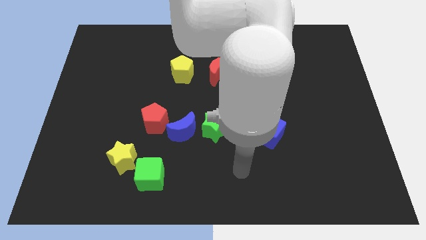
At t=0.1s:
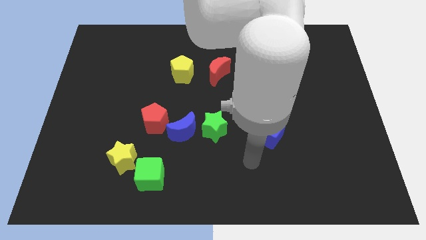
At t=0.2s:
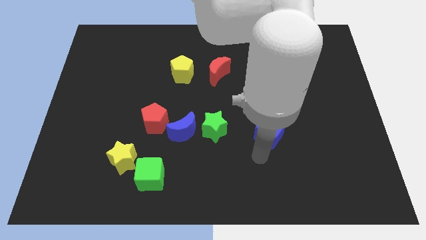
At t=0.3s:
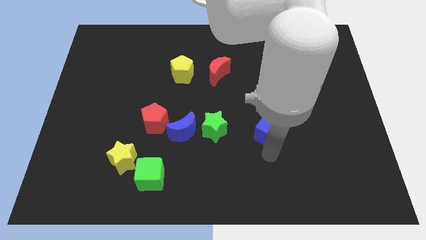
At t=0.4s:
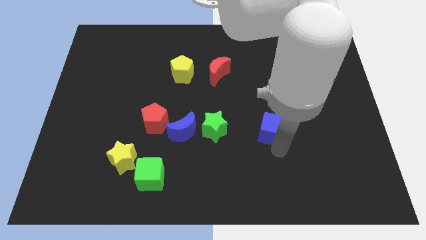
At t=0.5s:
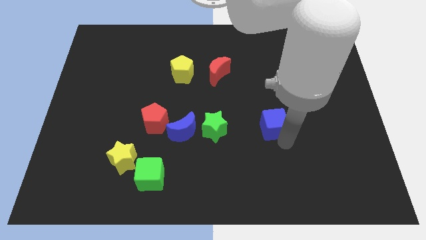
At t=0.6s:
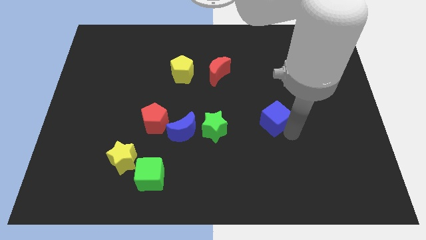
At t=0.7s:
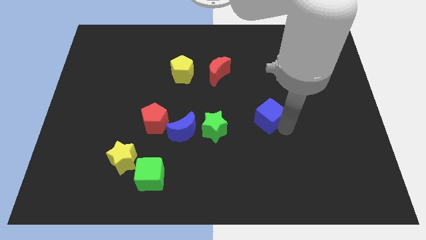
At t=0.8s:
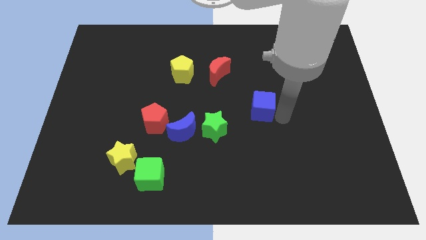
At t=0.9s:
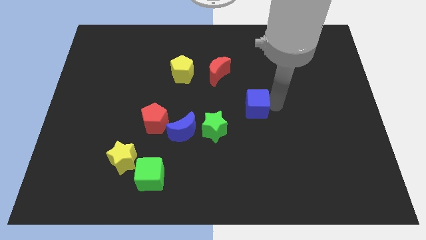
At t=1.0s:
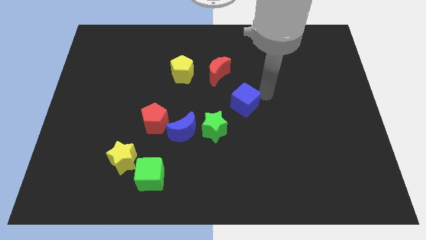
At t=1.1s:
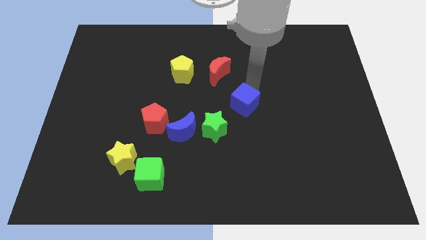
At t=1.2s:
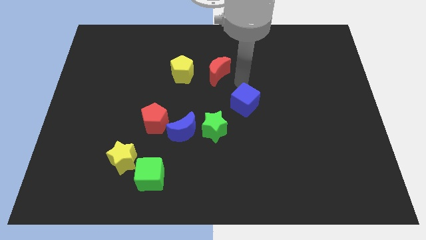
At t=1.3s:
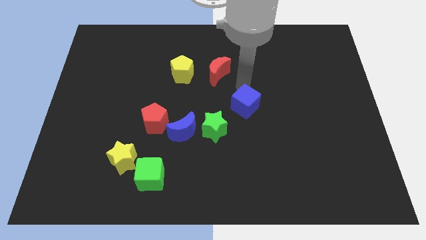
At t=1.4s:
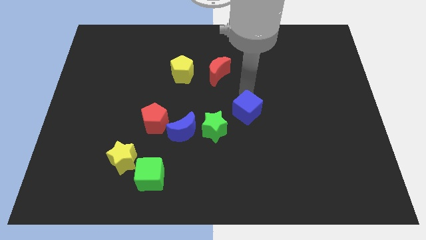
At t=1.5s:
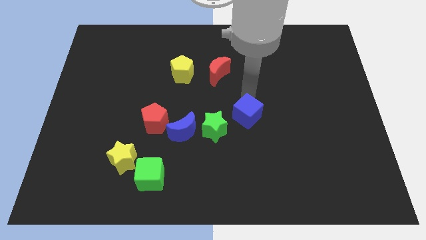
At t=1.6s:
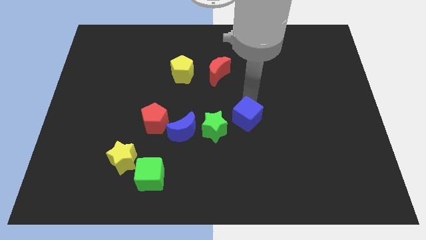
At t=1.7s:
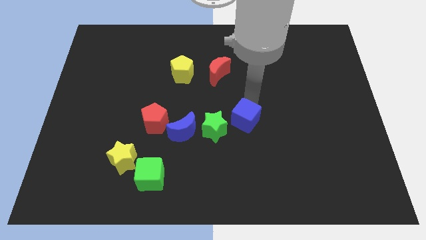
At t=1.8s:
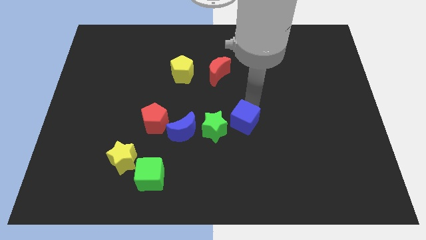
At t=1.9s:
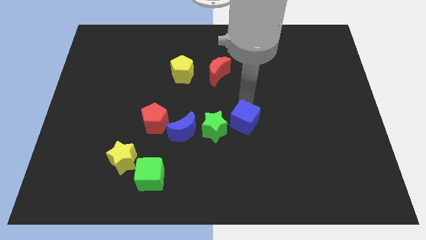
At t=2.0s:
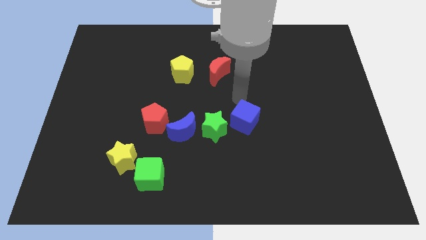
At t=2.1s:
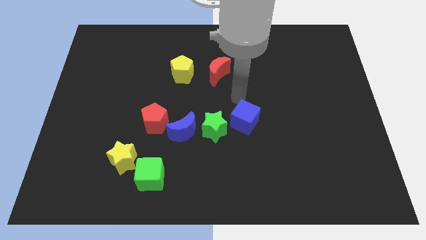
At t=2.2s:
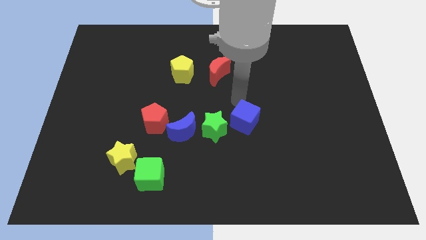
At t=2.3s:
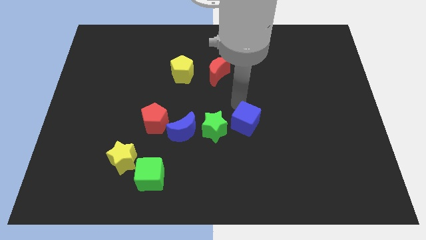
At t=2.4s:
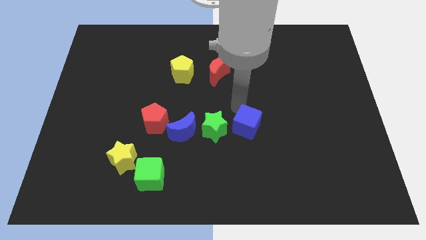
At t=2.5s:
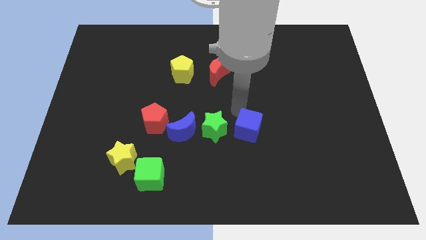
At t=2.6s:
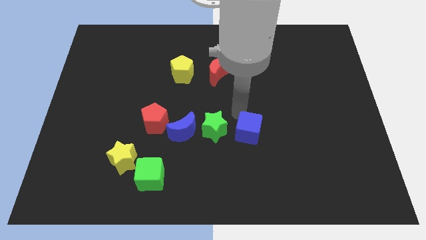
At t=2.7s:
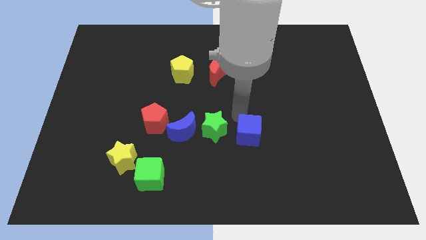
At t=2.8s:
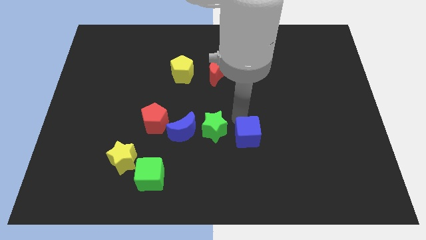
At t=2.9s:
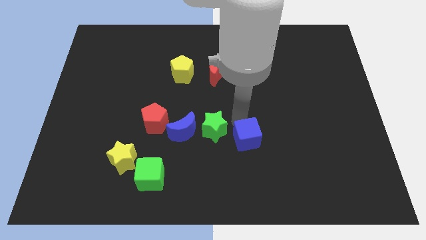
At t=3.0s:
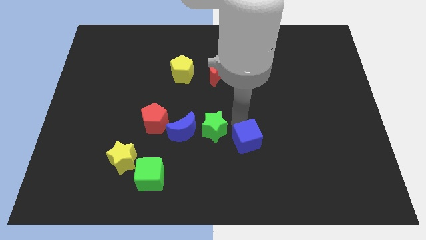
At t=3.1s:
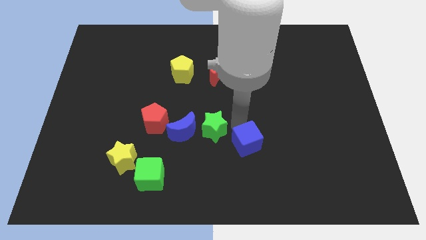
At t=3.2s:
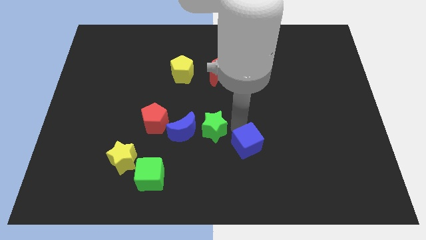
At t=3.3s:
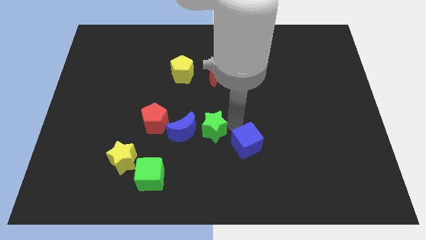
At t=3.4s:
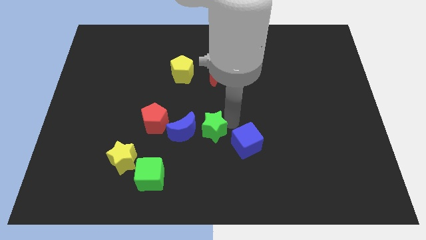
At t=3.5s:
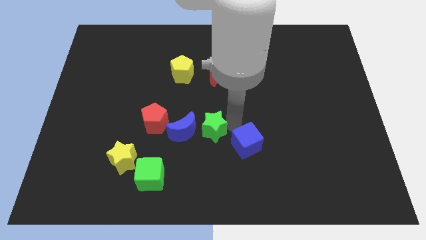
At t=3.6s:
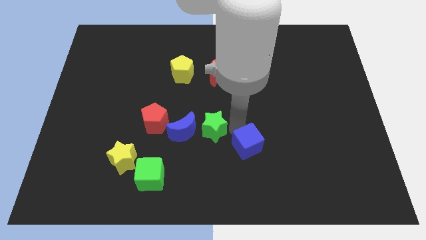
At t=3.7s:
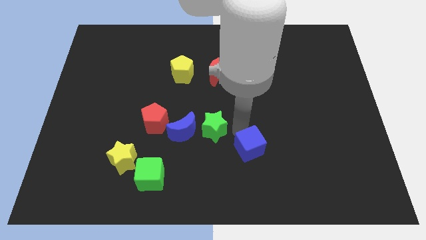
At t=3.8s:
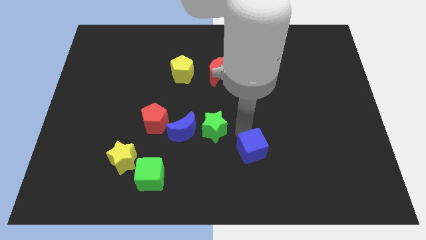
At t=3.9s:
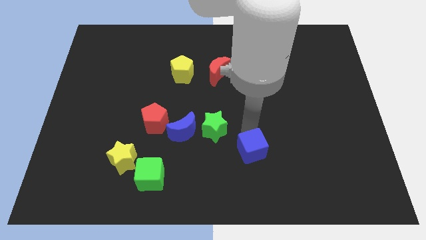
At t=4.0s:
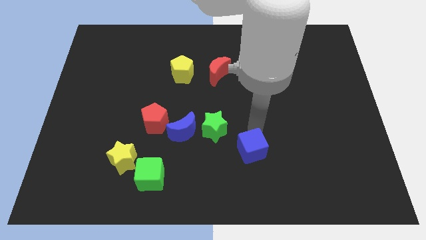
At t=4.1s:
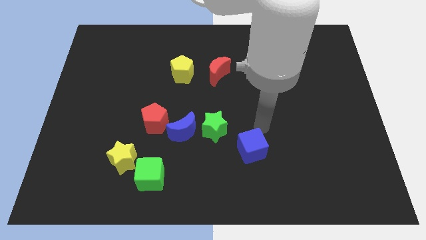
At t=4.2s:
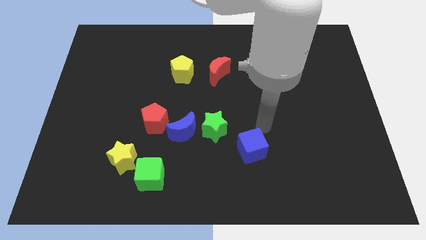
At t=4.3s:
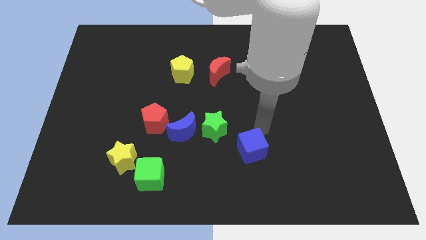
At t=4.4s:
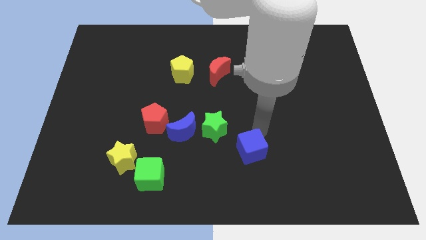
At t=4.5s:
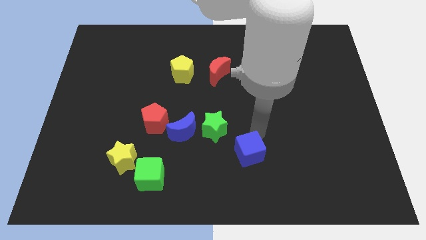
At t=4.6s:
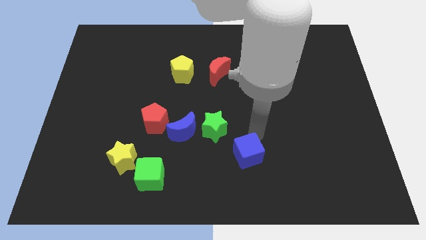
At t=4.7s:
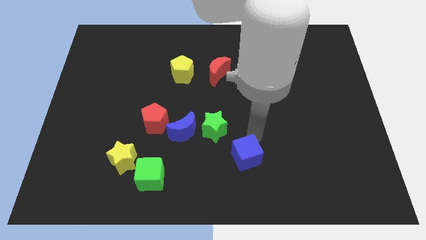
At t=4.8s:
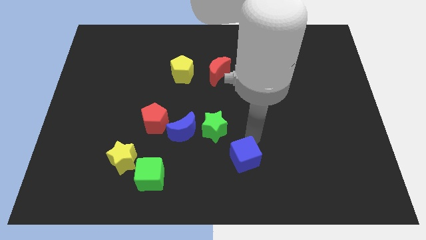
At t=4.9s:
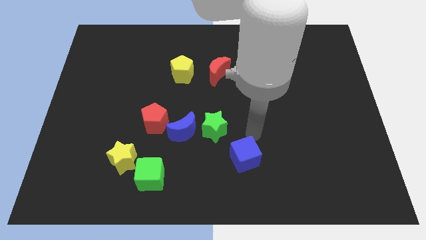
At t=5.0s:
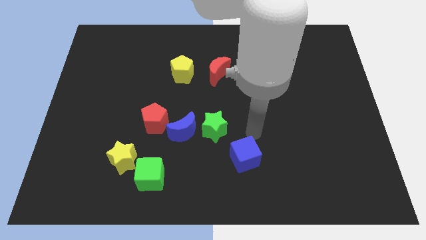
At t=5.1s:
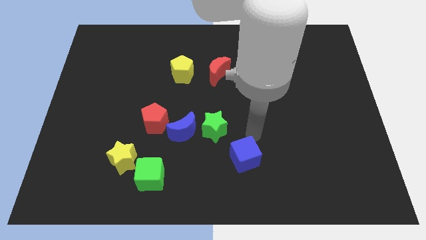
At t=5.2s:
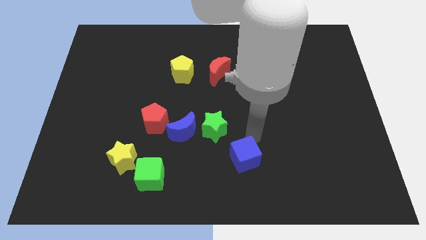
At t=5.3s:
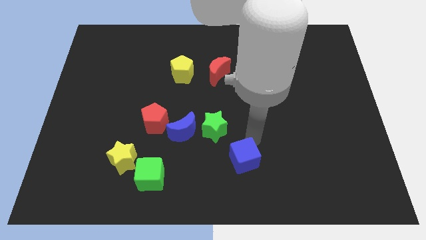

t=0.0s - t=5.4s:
put the blue cube to the bottom side

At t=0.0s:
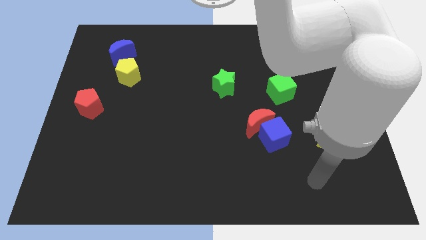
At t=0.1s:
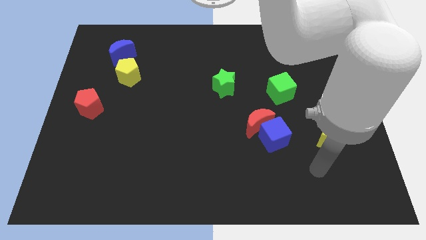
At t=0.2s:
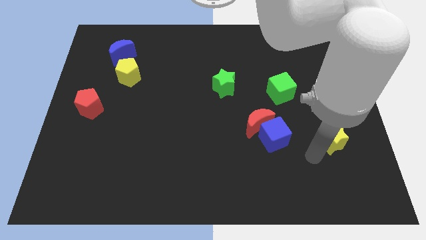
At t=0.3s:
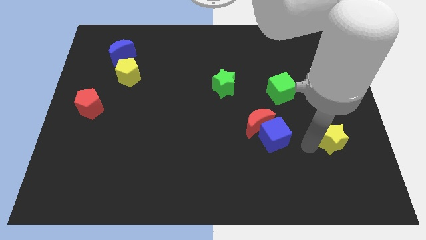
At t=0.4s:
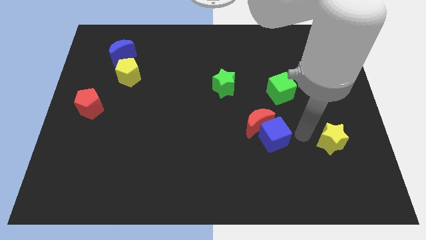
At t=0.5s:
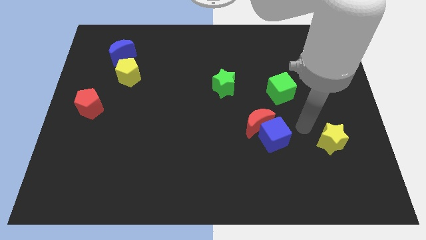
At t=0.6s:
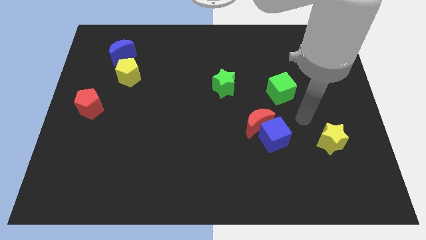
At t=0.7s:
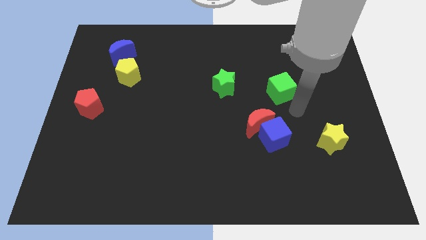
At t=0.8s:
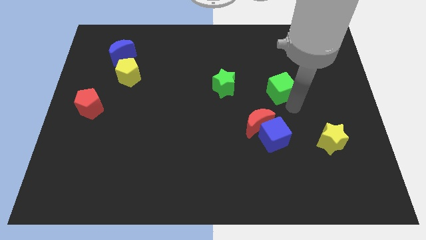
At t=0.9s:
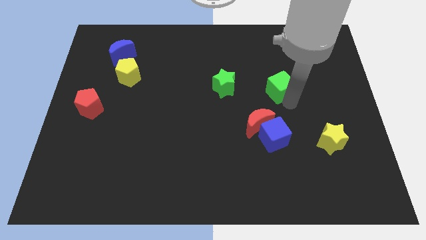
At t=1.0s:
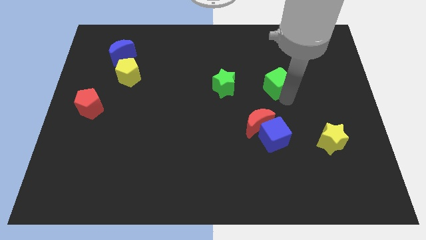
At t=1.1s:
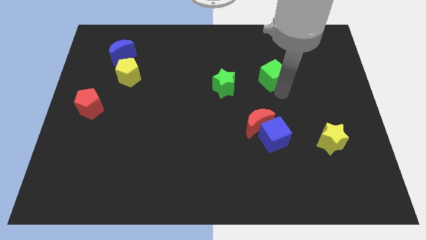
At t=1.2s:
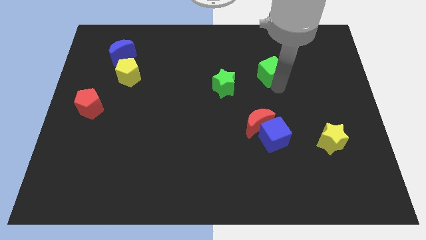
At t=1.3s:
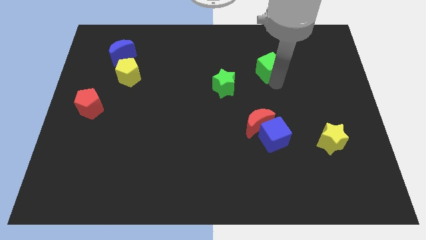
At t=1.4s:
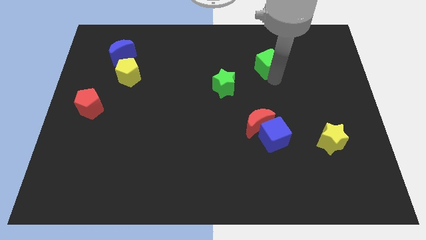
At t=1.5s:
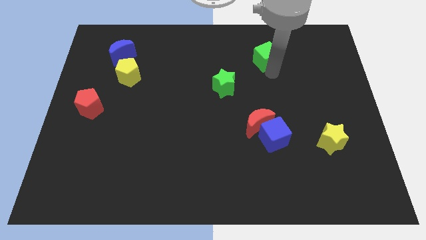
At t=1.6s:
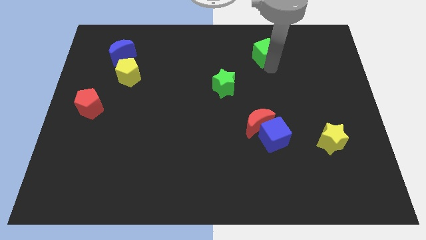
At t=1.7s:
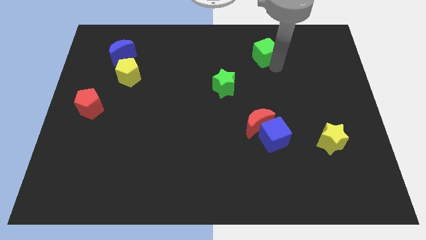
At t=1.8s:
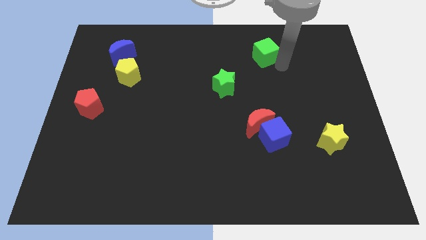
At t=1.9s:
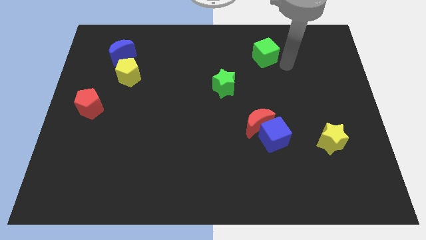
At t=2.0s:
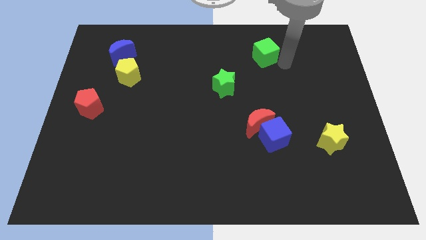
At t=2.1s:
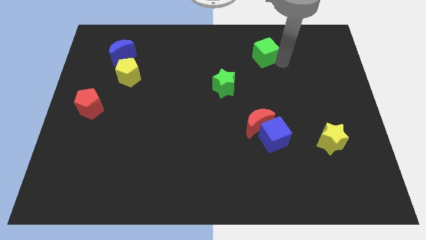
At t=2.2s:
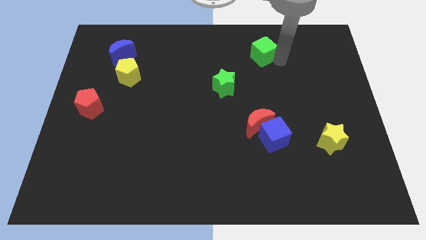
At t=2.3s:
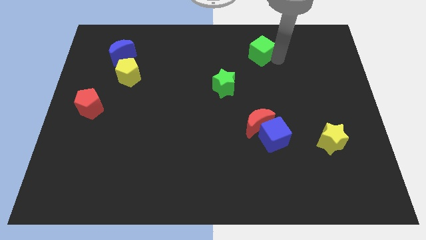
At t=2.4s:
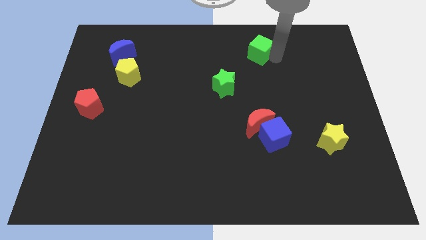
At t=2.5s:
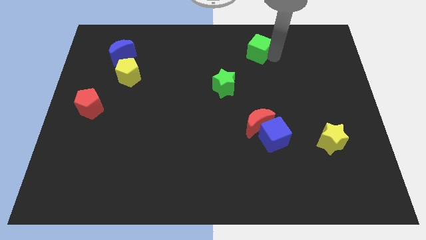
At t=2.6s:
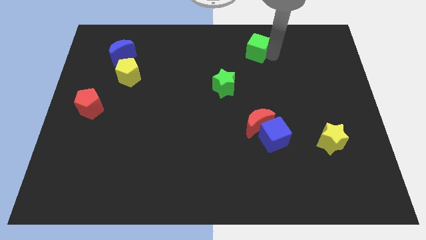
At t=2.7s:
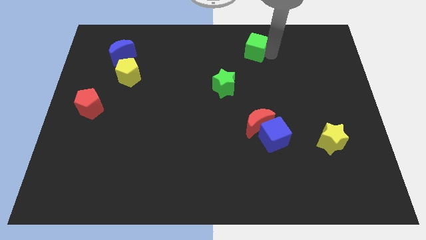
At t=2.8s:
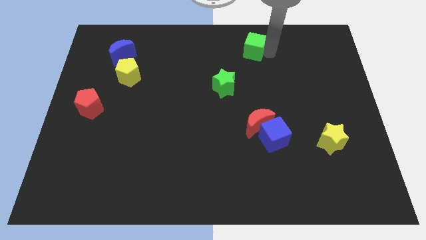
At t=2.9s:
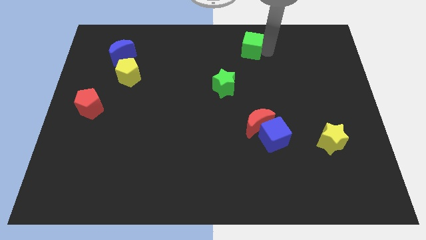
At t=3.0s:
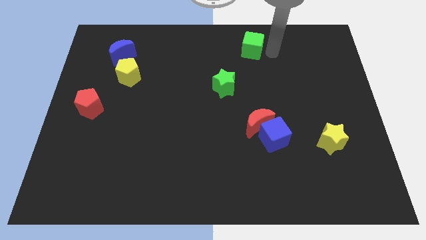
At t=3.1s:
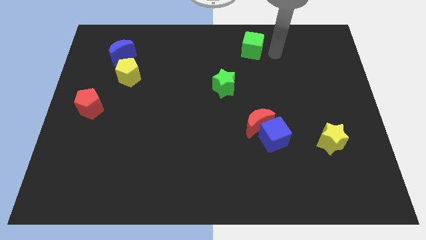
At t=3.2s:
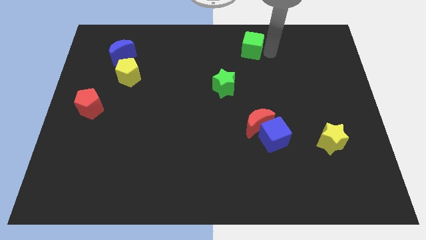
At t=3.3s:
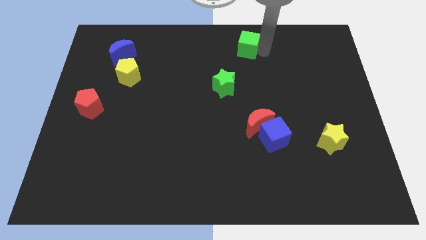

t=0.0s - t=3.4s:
put the green cube to the top
